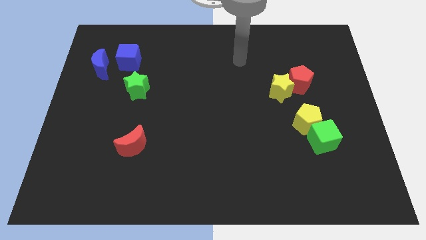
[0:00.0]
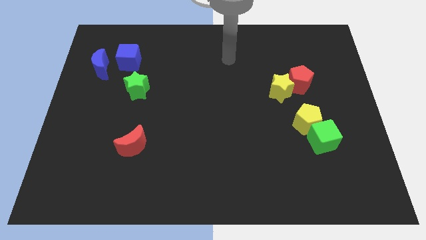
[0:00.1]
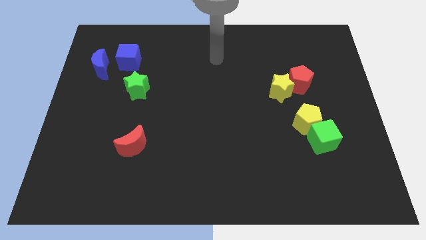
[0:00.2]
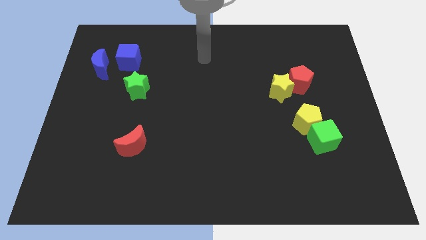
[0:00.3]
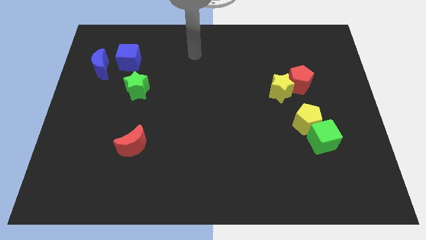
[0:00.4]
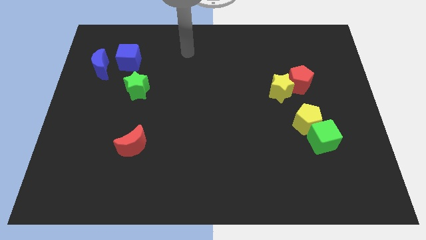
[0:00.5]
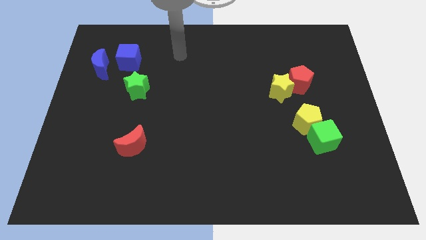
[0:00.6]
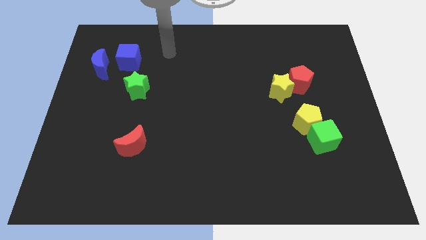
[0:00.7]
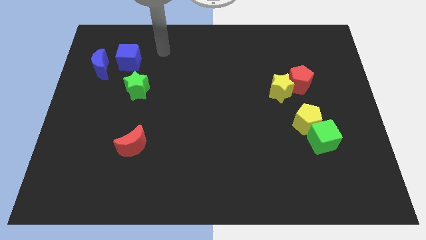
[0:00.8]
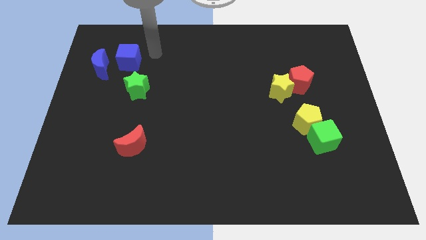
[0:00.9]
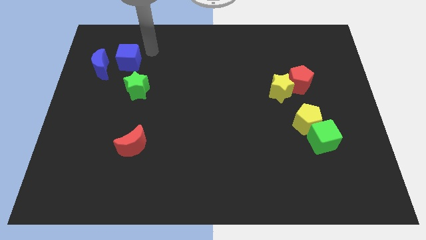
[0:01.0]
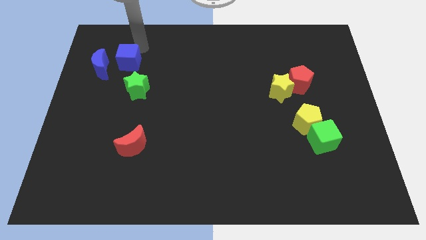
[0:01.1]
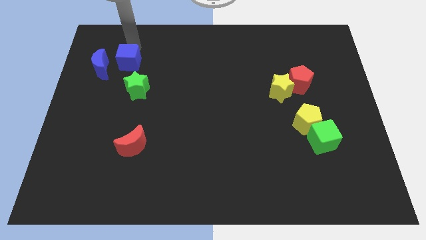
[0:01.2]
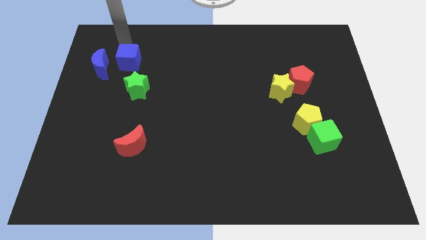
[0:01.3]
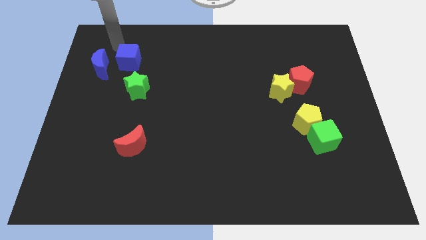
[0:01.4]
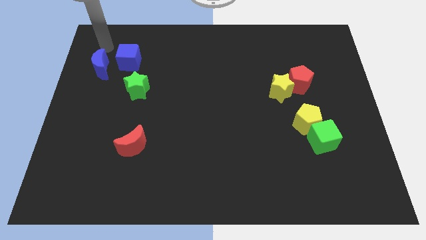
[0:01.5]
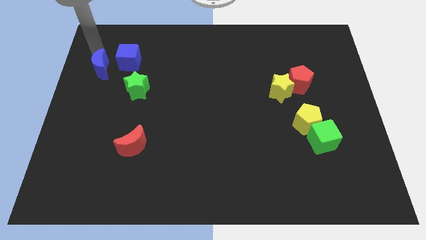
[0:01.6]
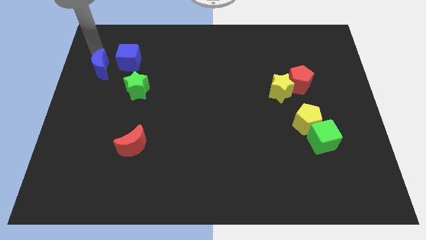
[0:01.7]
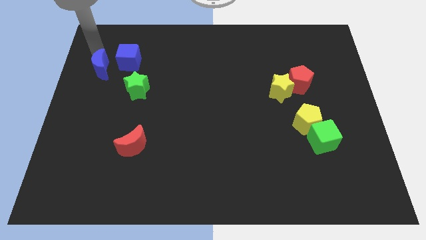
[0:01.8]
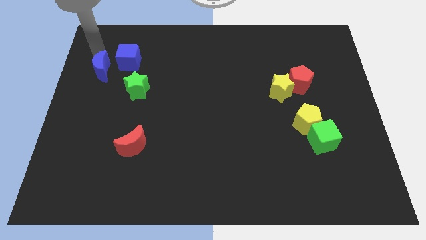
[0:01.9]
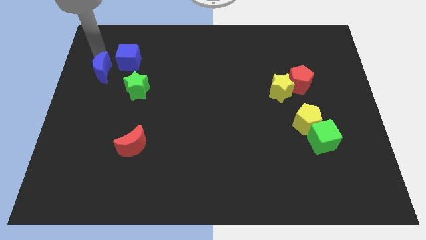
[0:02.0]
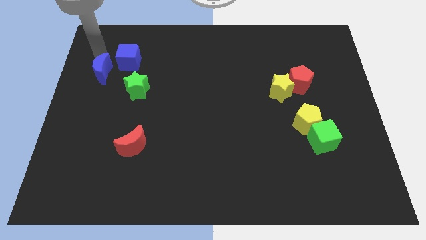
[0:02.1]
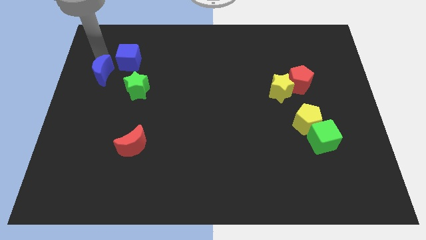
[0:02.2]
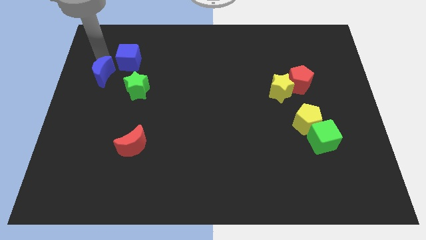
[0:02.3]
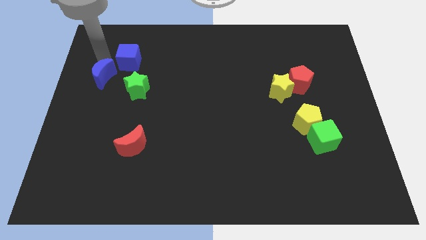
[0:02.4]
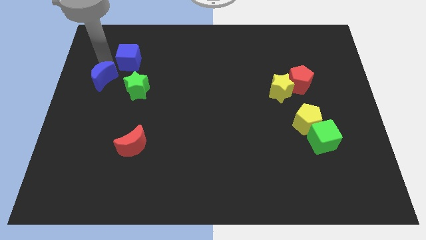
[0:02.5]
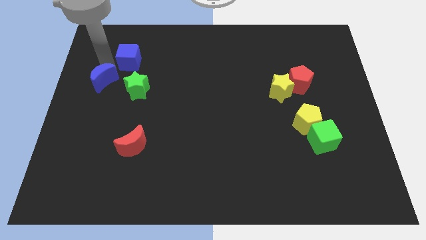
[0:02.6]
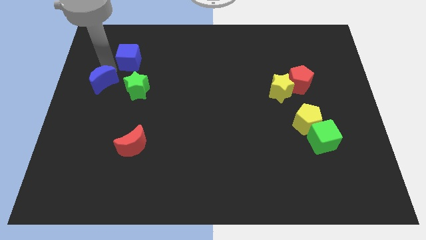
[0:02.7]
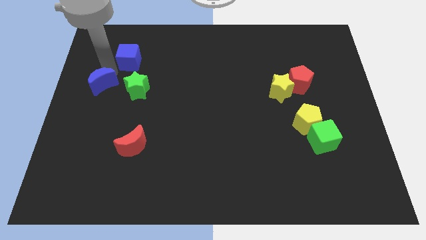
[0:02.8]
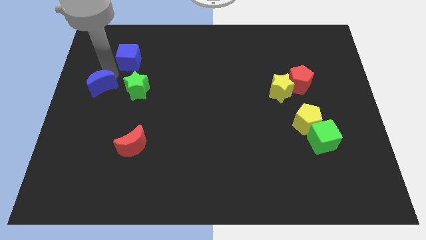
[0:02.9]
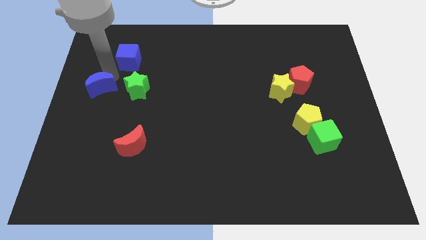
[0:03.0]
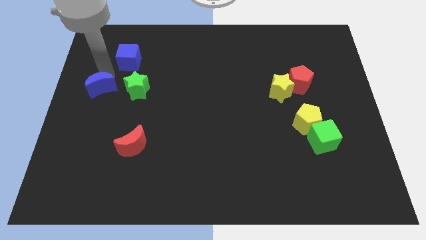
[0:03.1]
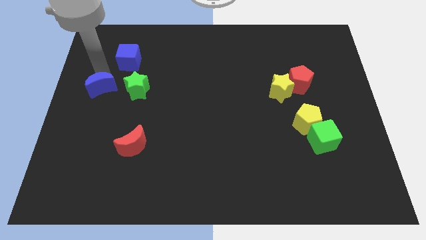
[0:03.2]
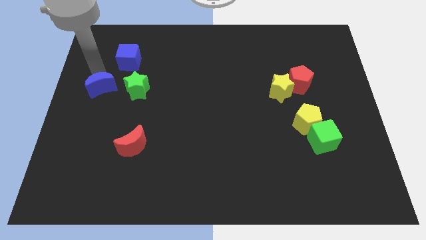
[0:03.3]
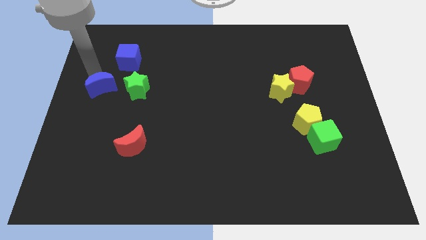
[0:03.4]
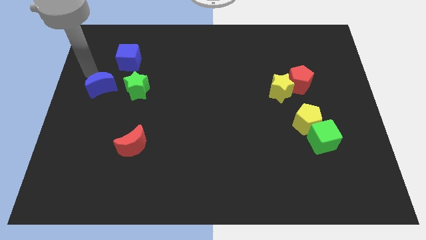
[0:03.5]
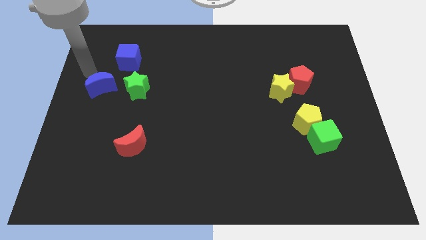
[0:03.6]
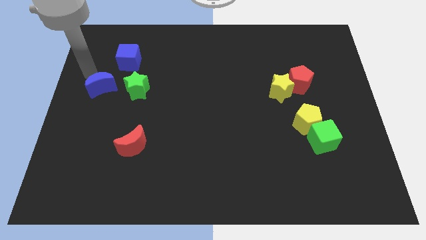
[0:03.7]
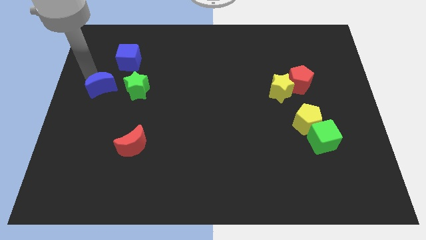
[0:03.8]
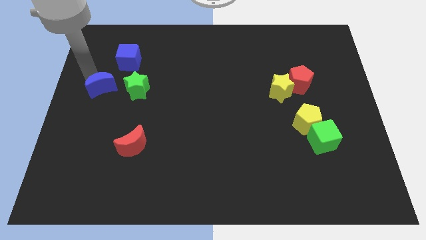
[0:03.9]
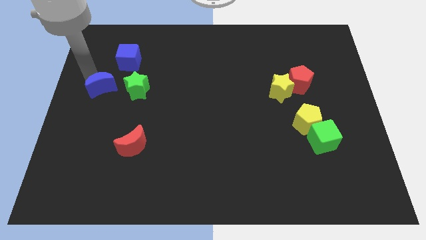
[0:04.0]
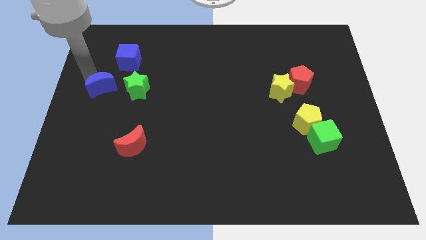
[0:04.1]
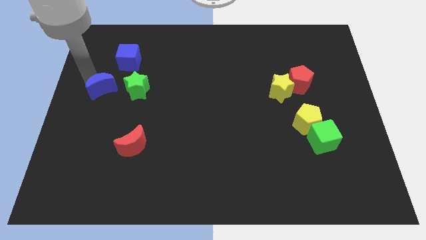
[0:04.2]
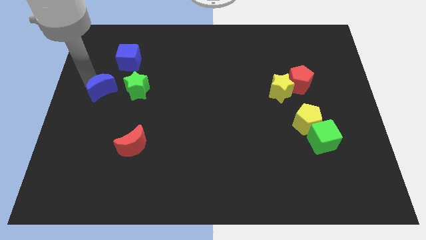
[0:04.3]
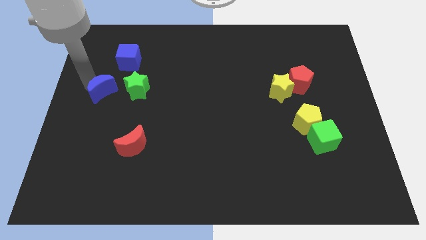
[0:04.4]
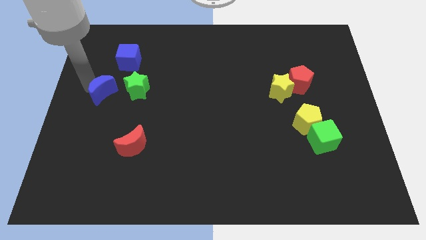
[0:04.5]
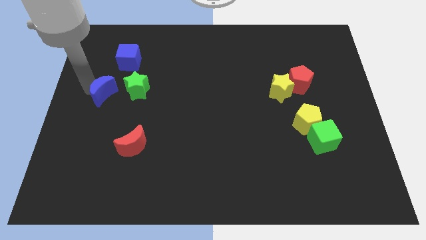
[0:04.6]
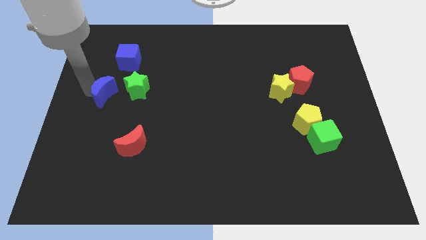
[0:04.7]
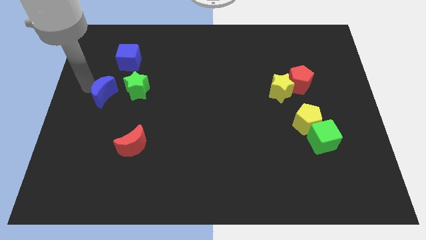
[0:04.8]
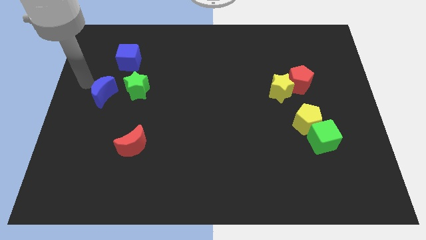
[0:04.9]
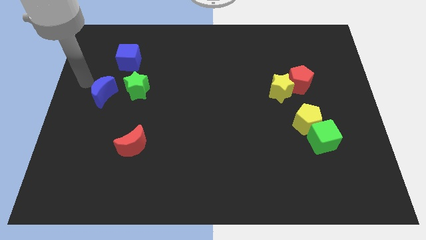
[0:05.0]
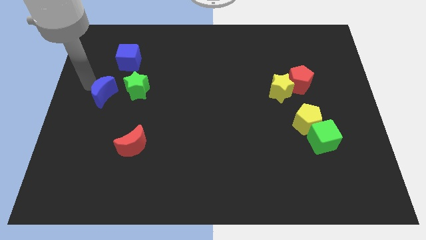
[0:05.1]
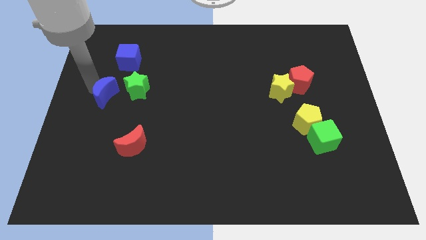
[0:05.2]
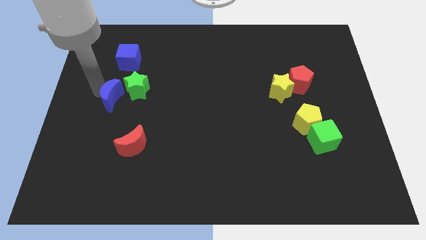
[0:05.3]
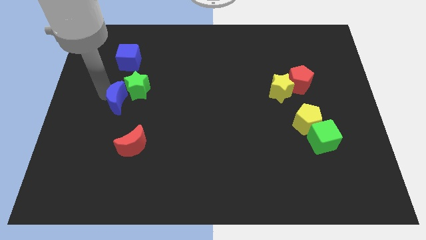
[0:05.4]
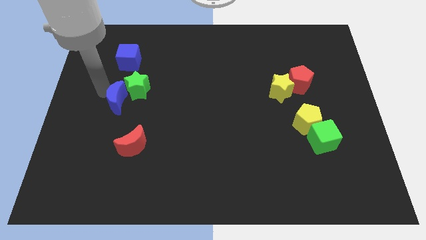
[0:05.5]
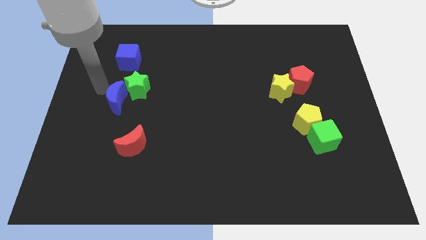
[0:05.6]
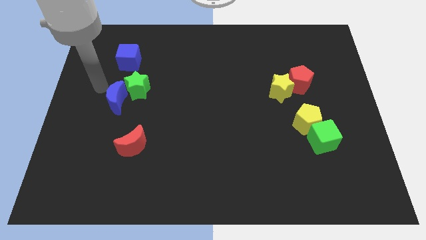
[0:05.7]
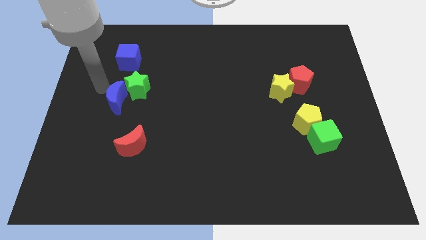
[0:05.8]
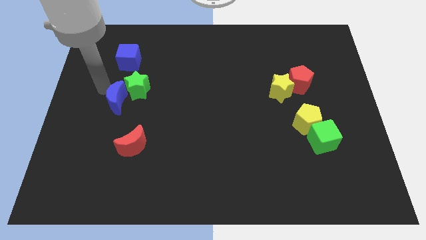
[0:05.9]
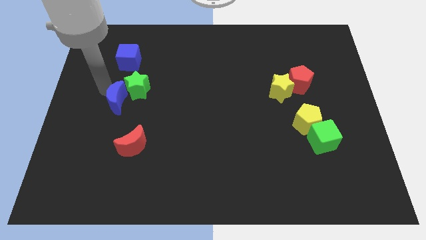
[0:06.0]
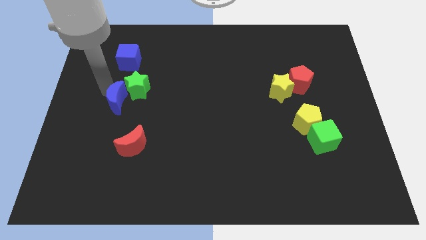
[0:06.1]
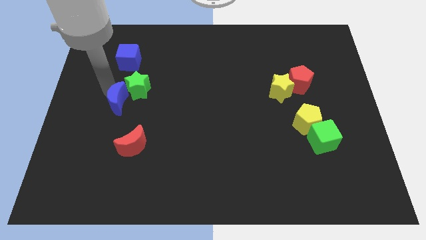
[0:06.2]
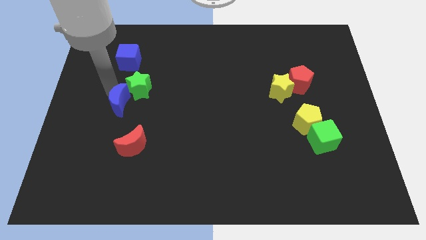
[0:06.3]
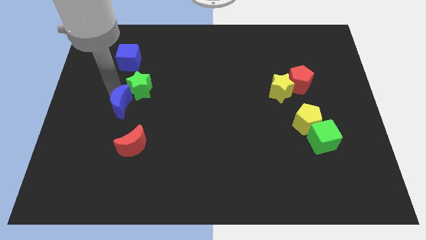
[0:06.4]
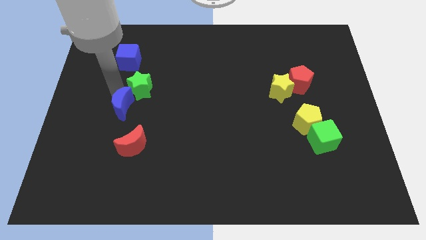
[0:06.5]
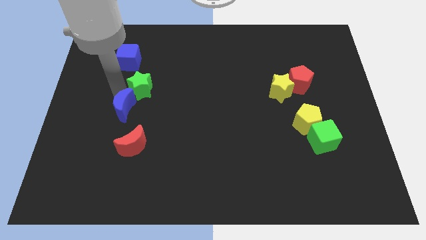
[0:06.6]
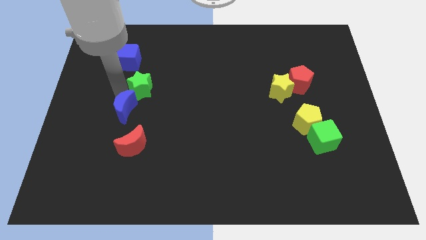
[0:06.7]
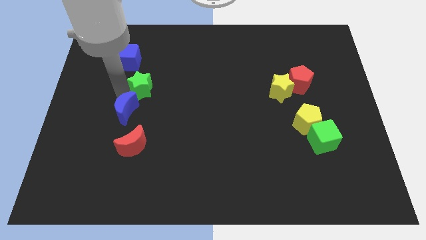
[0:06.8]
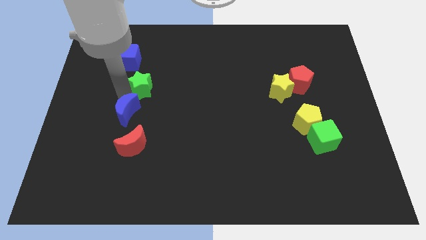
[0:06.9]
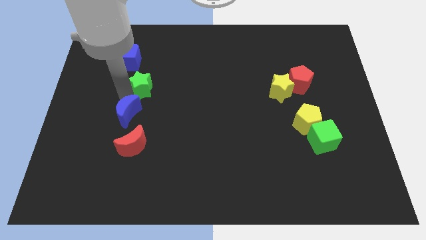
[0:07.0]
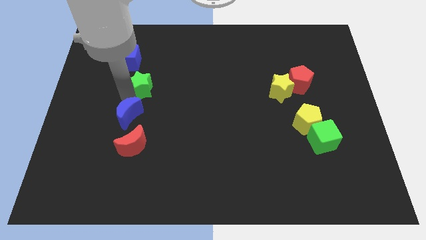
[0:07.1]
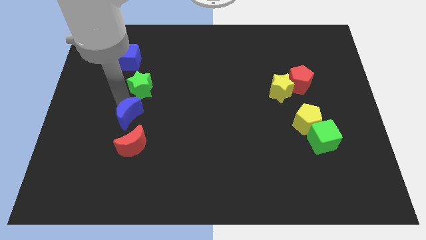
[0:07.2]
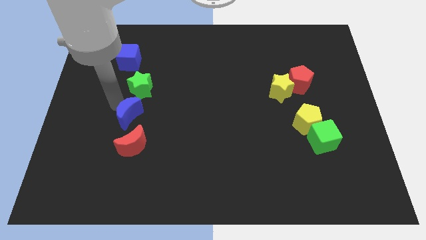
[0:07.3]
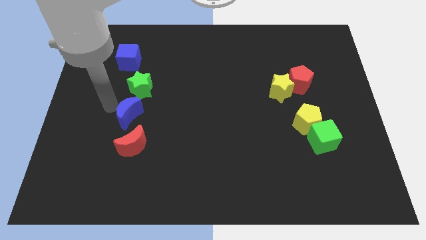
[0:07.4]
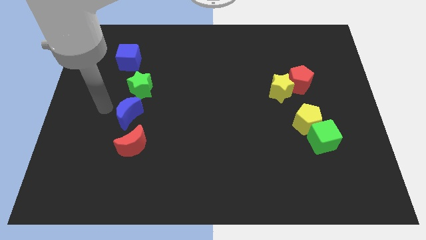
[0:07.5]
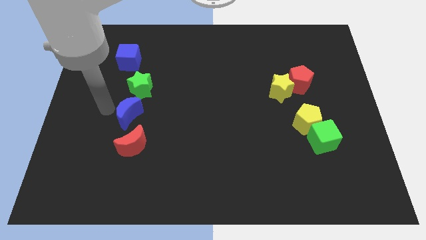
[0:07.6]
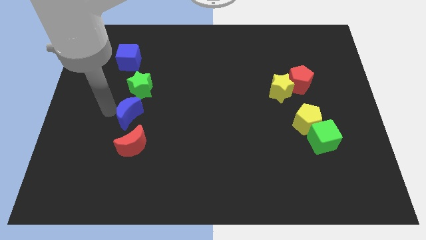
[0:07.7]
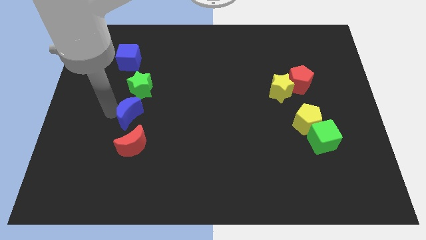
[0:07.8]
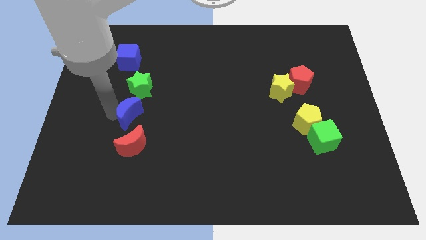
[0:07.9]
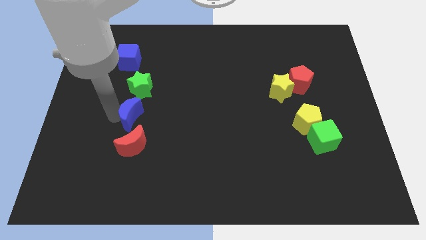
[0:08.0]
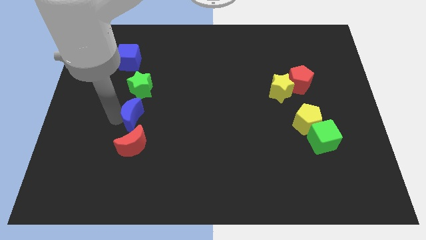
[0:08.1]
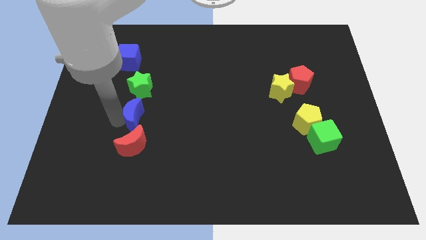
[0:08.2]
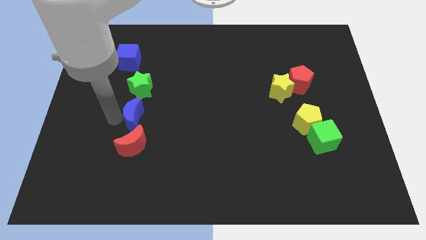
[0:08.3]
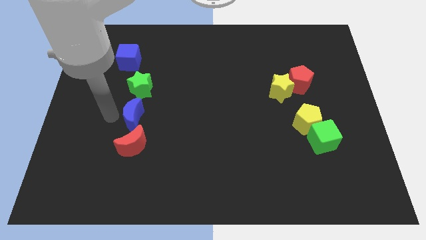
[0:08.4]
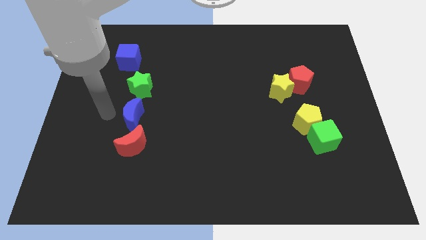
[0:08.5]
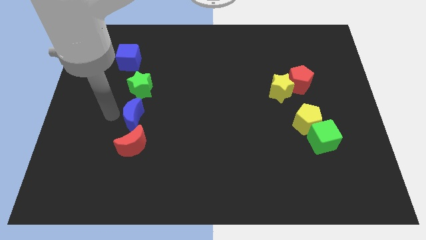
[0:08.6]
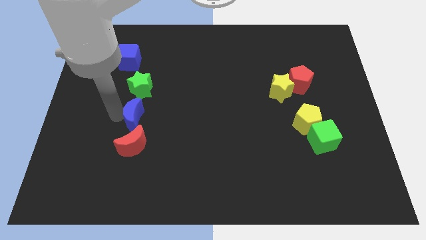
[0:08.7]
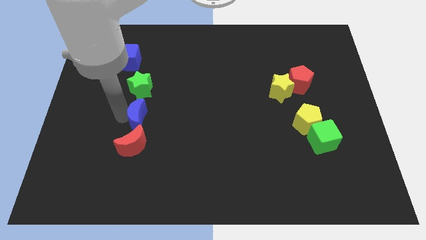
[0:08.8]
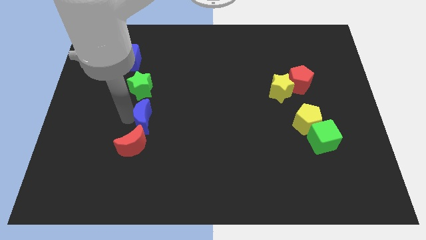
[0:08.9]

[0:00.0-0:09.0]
move the blue moon down and then right
